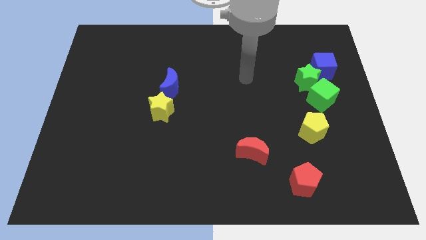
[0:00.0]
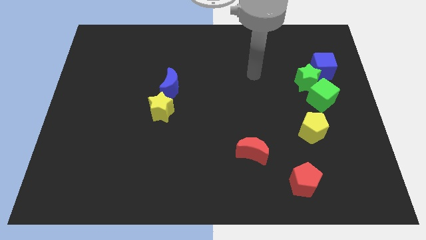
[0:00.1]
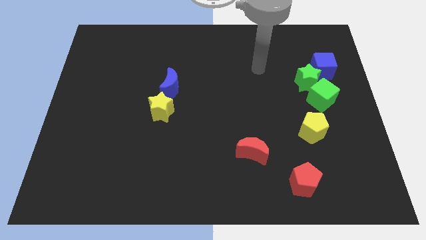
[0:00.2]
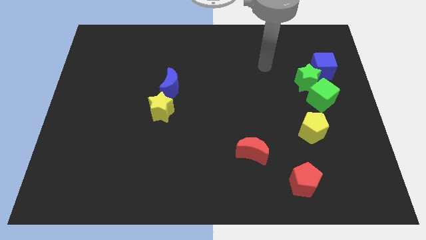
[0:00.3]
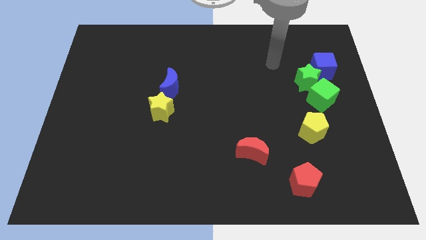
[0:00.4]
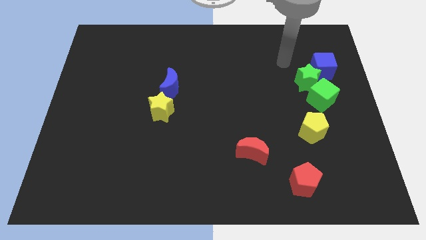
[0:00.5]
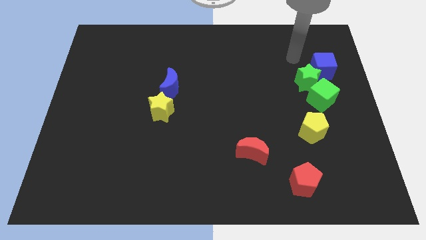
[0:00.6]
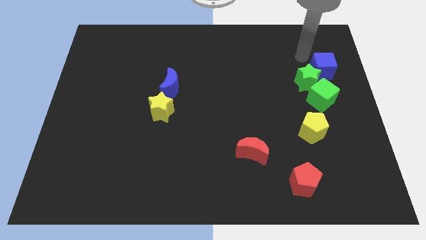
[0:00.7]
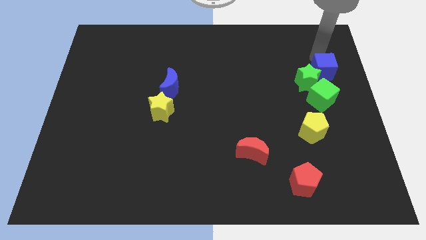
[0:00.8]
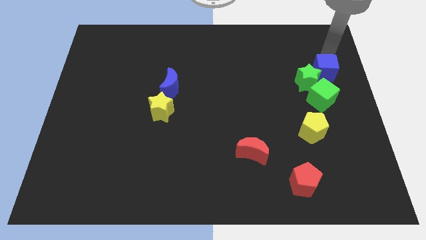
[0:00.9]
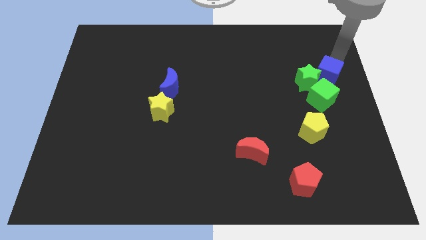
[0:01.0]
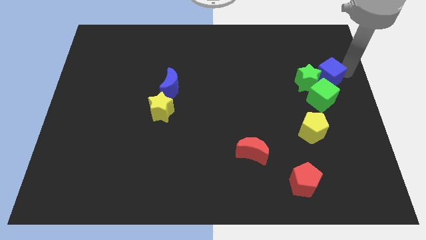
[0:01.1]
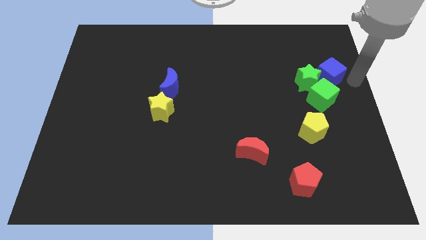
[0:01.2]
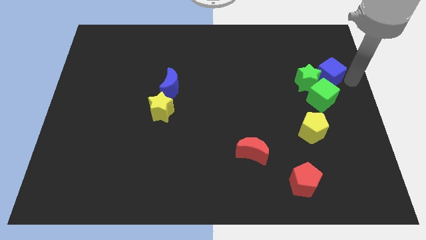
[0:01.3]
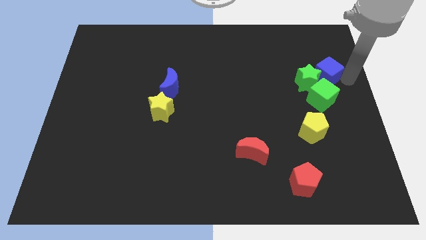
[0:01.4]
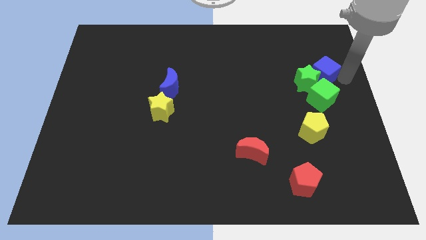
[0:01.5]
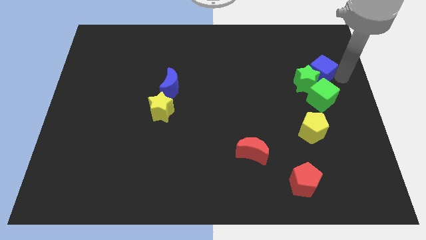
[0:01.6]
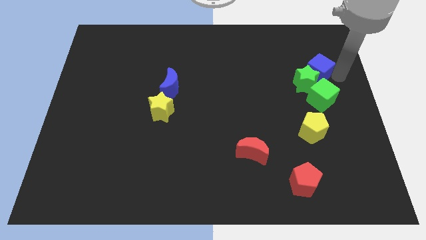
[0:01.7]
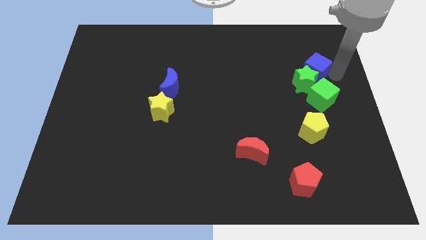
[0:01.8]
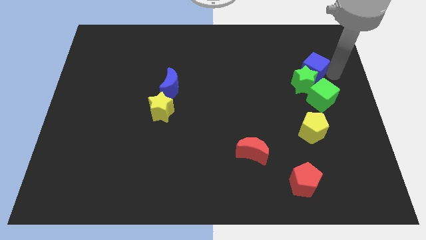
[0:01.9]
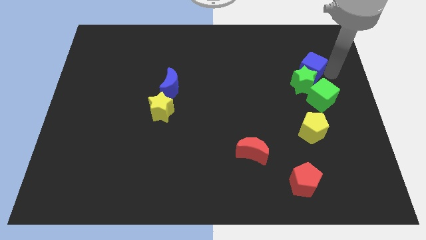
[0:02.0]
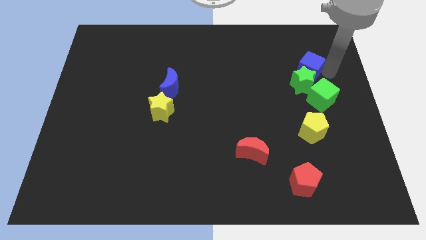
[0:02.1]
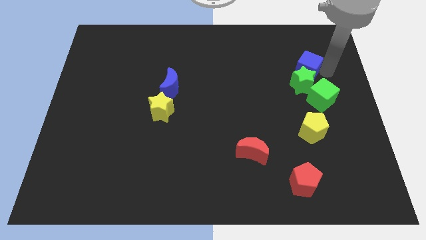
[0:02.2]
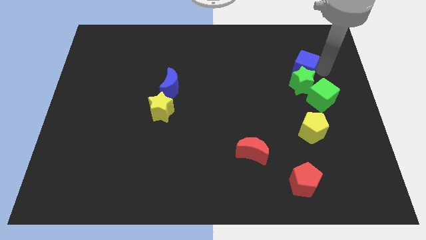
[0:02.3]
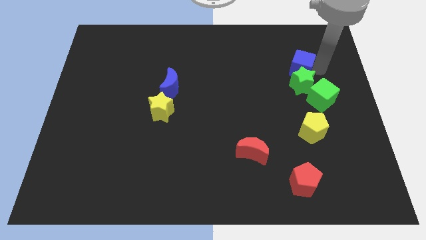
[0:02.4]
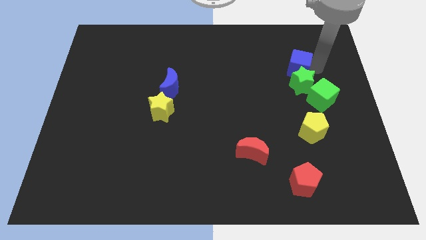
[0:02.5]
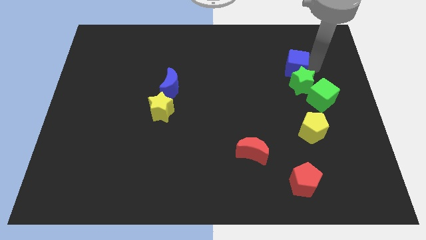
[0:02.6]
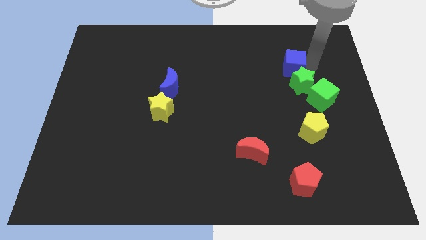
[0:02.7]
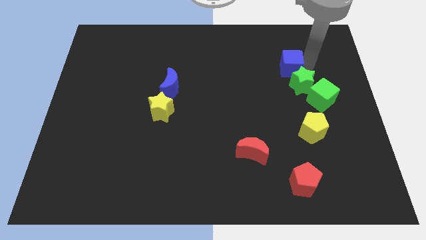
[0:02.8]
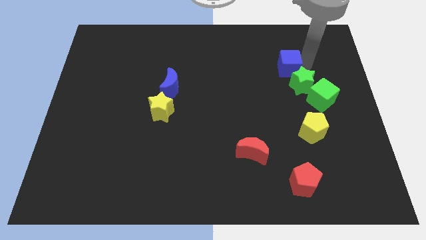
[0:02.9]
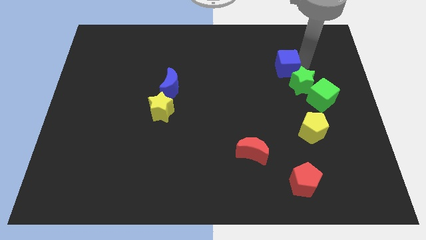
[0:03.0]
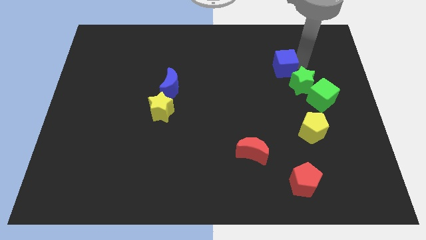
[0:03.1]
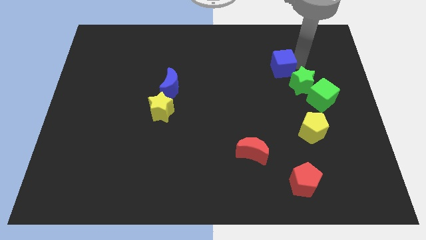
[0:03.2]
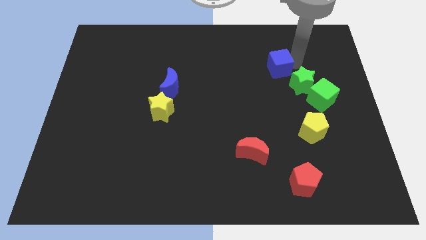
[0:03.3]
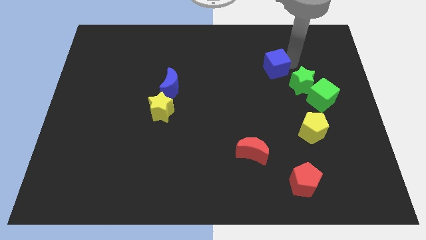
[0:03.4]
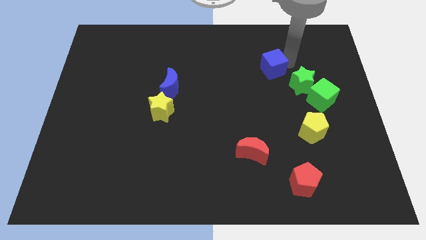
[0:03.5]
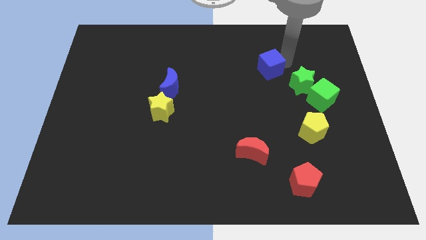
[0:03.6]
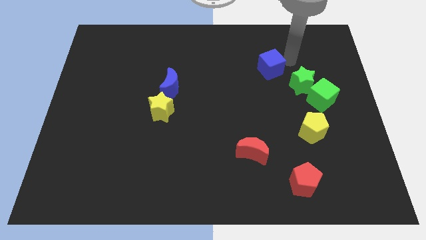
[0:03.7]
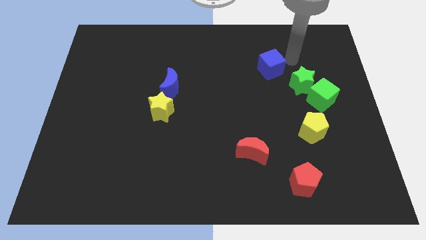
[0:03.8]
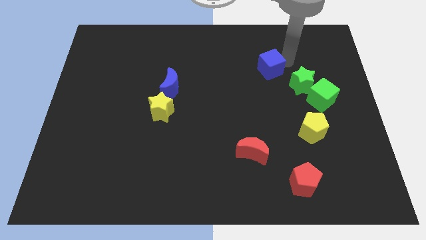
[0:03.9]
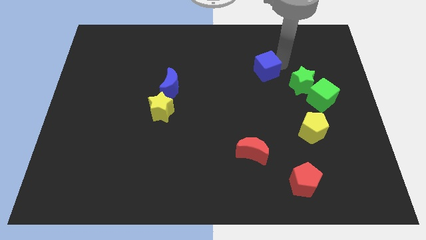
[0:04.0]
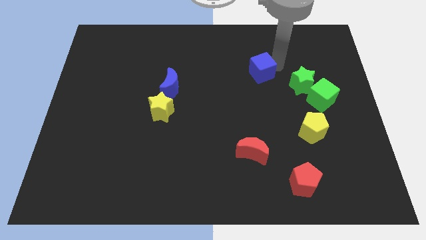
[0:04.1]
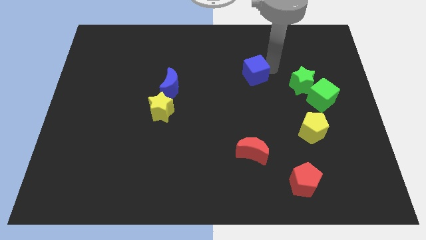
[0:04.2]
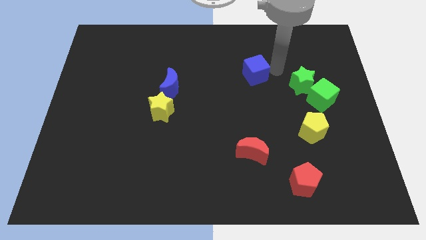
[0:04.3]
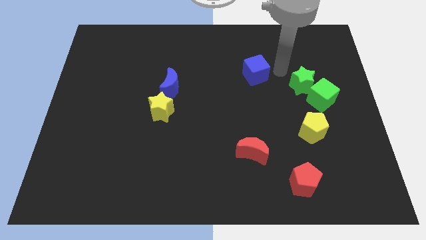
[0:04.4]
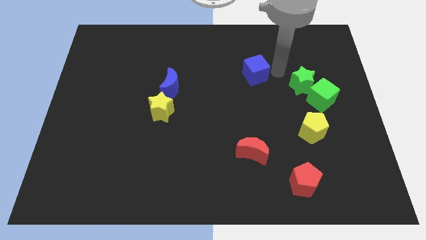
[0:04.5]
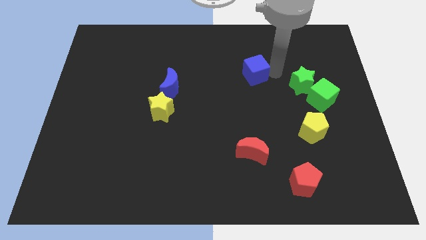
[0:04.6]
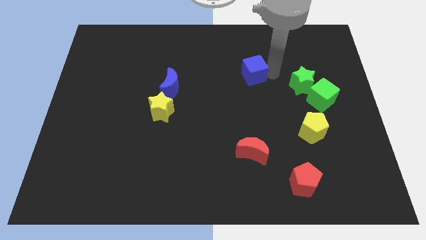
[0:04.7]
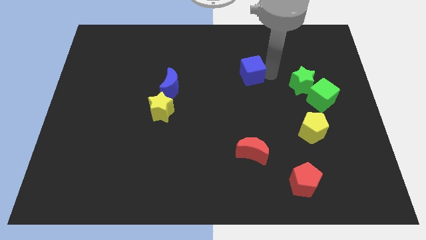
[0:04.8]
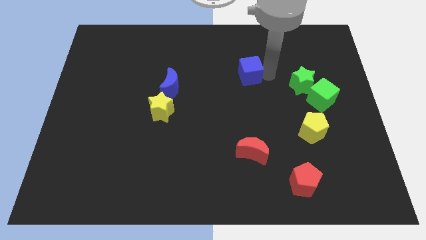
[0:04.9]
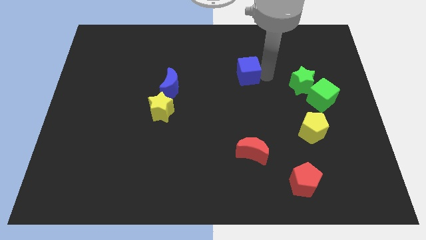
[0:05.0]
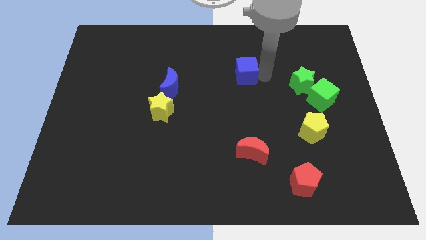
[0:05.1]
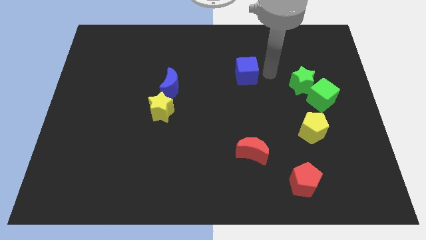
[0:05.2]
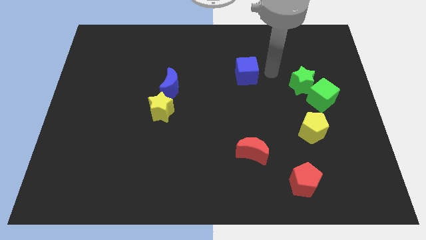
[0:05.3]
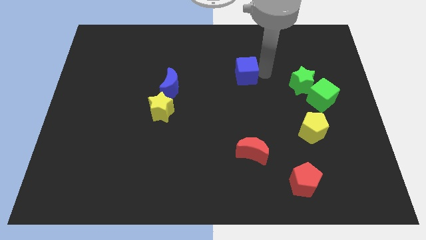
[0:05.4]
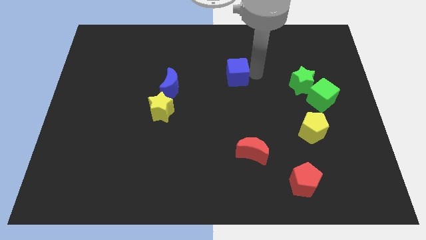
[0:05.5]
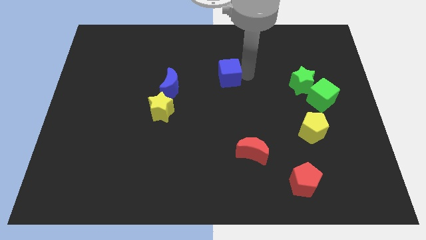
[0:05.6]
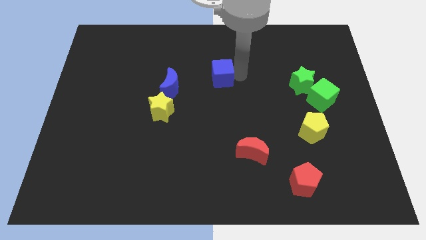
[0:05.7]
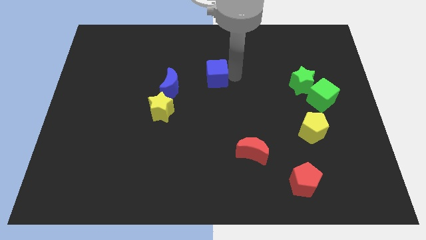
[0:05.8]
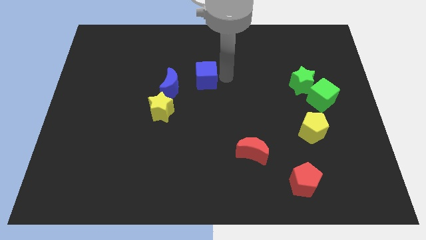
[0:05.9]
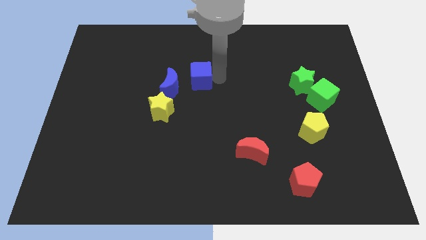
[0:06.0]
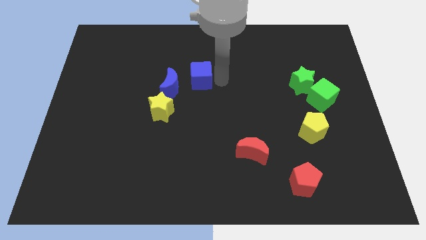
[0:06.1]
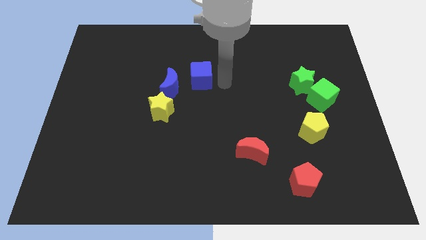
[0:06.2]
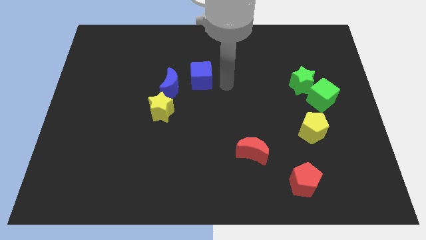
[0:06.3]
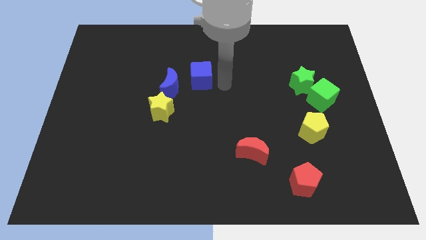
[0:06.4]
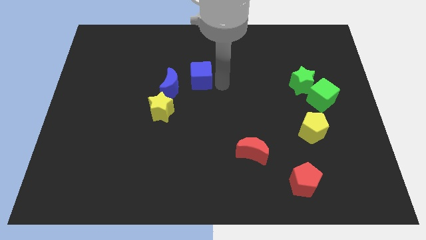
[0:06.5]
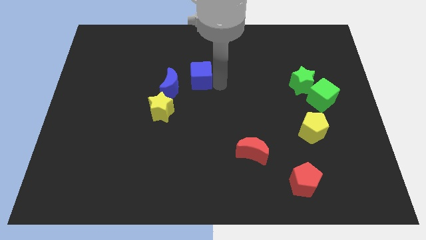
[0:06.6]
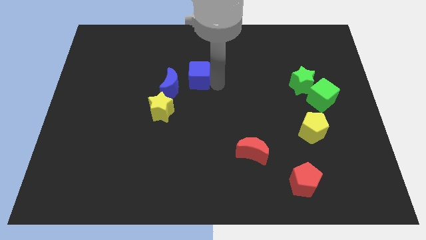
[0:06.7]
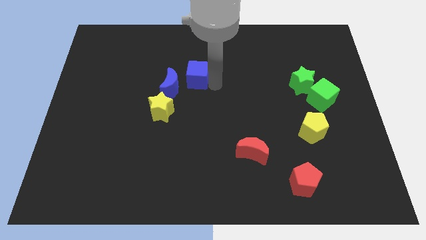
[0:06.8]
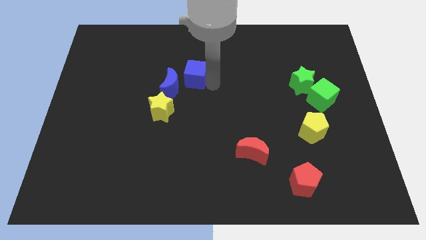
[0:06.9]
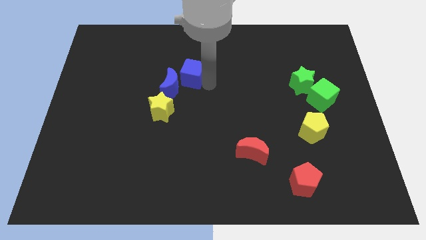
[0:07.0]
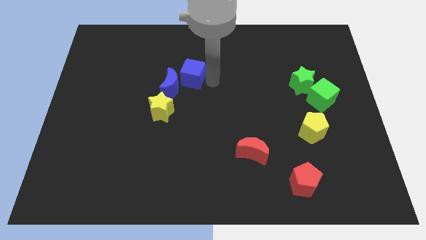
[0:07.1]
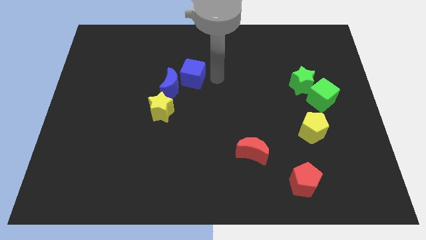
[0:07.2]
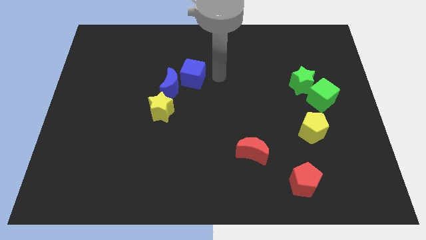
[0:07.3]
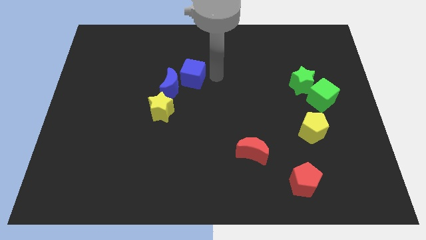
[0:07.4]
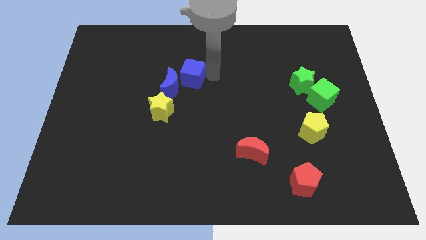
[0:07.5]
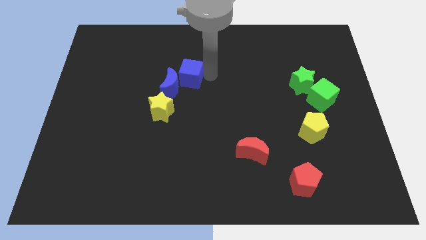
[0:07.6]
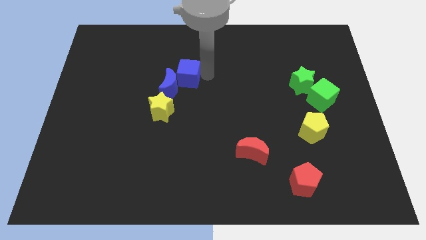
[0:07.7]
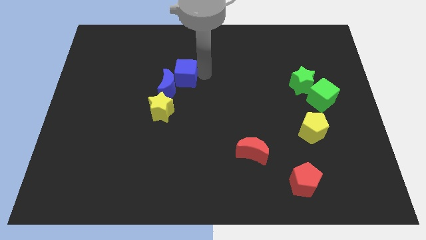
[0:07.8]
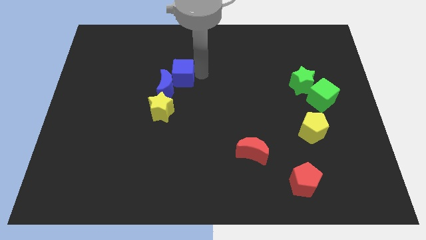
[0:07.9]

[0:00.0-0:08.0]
slide the blue cube above the yellow star
